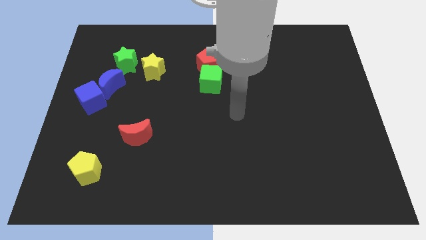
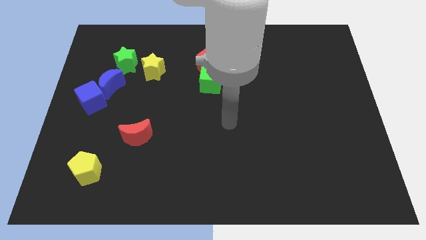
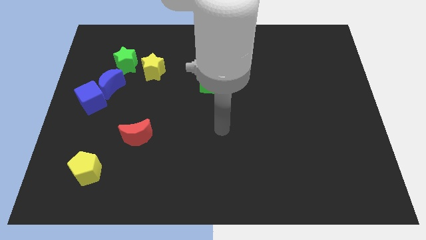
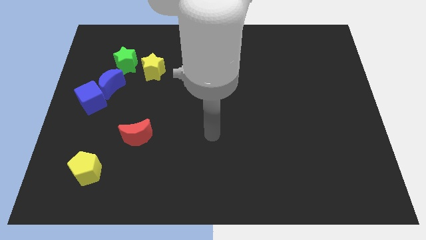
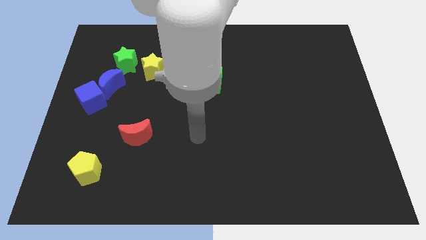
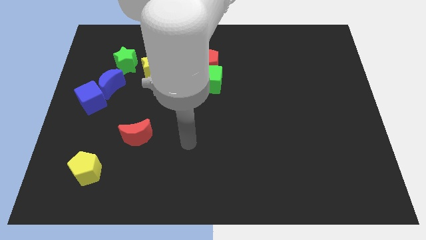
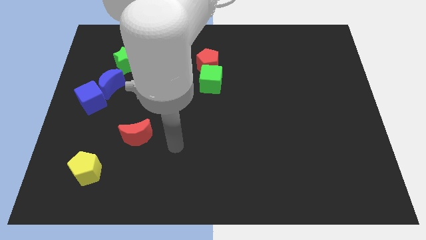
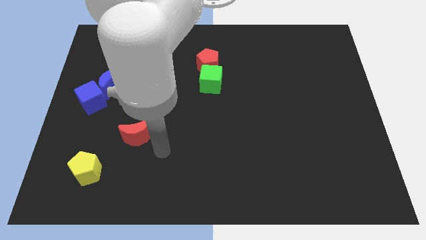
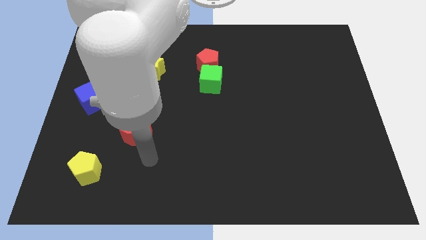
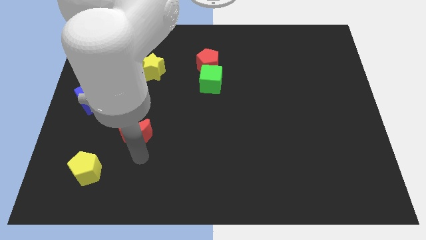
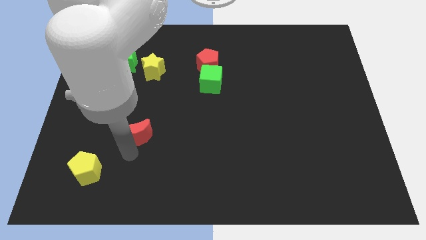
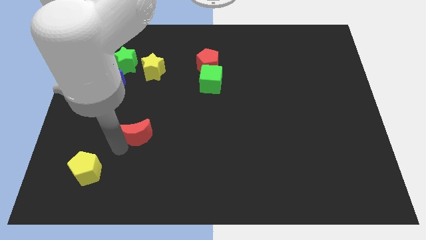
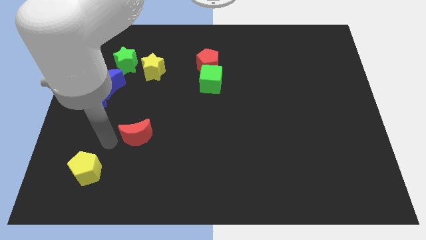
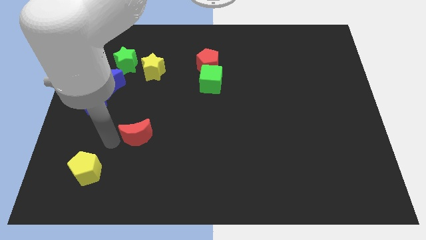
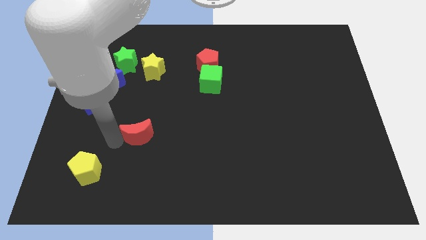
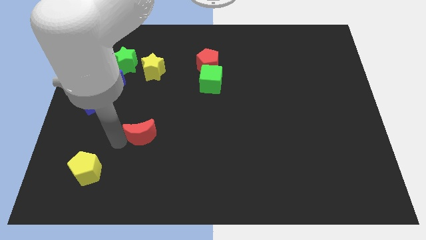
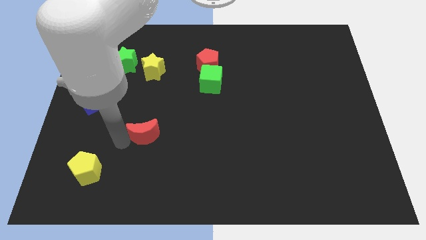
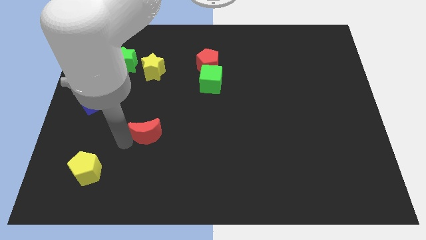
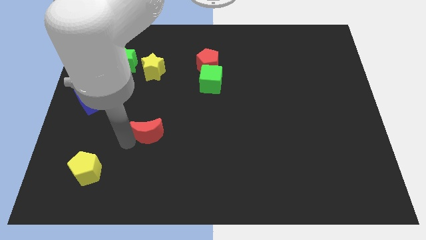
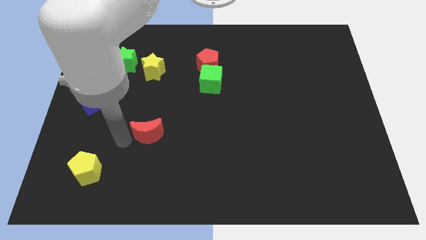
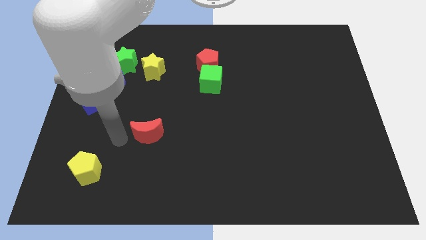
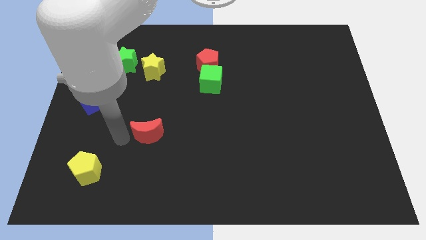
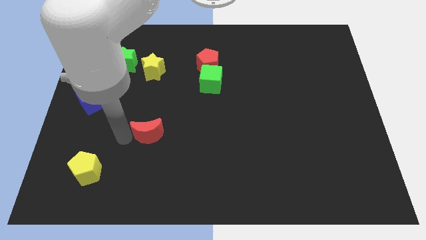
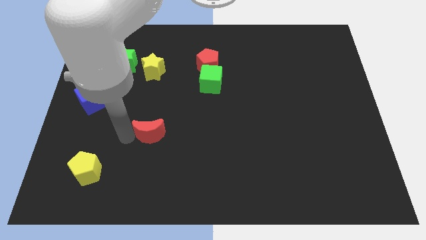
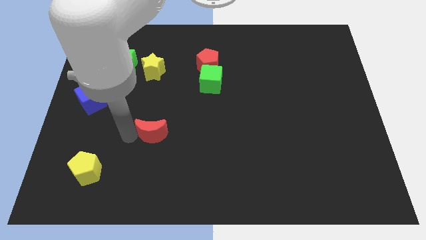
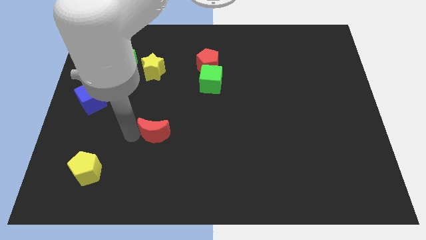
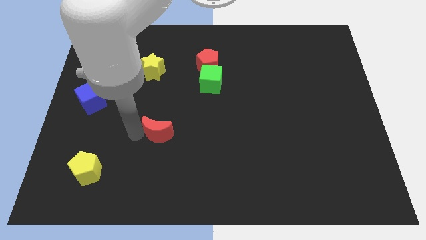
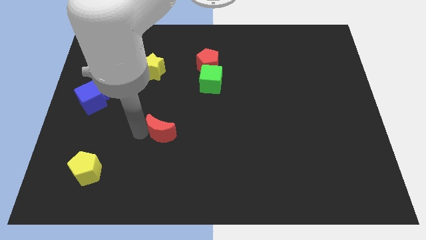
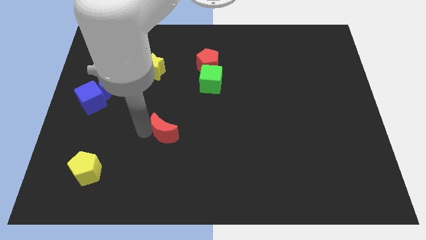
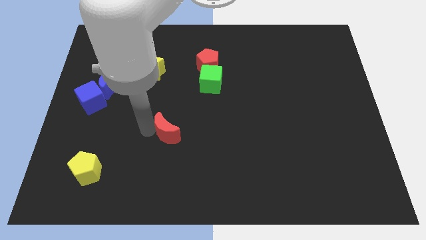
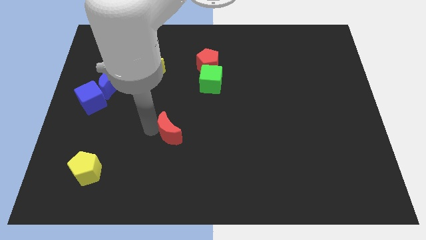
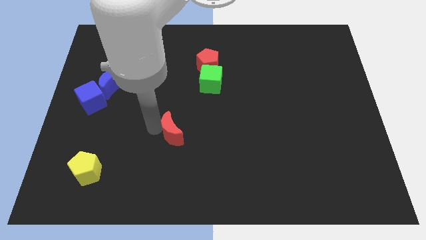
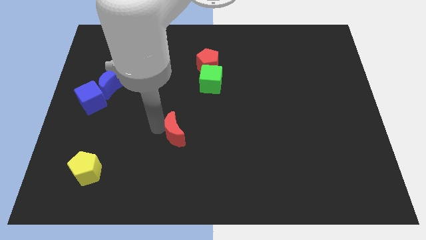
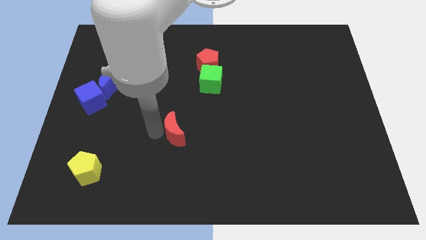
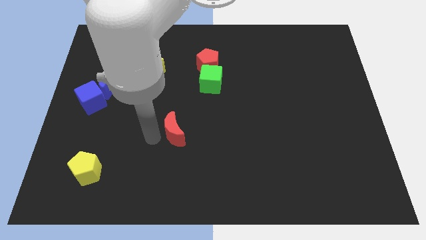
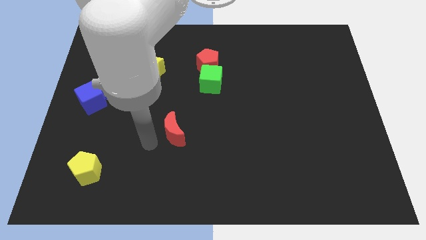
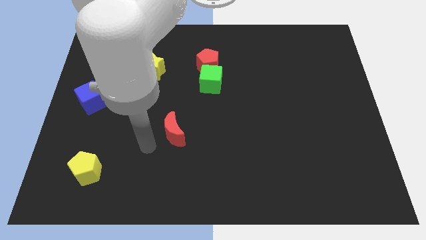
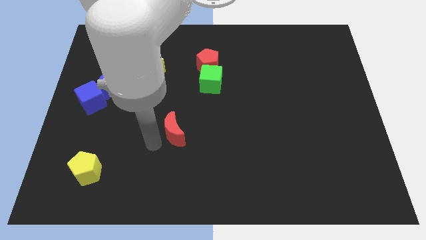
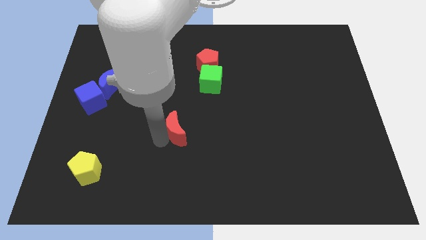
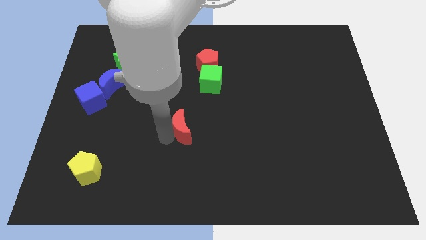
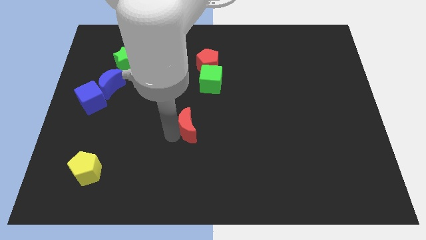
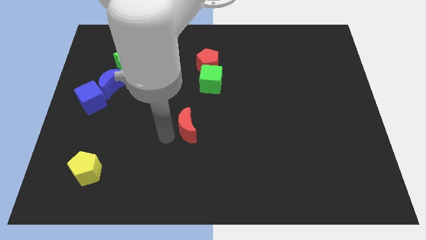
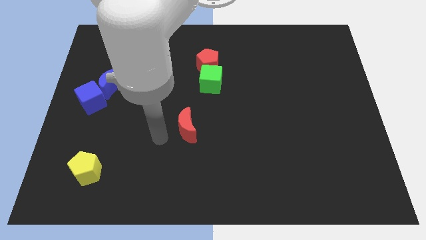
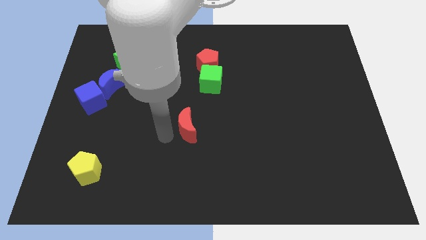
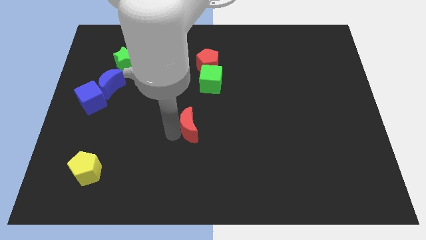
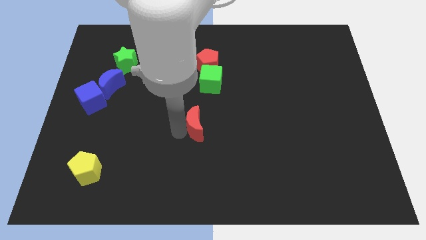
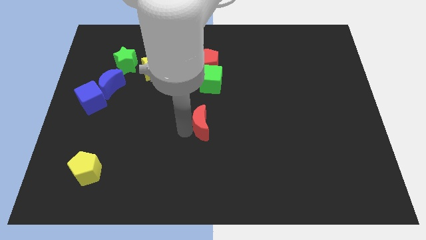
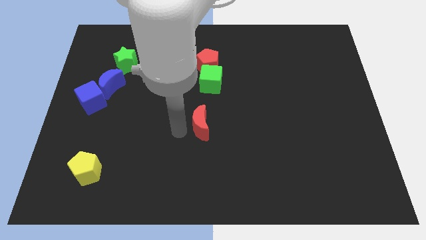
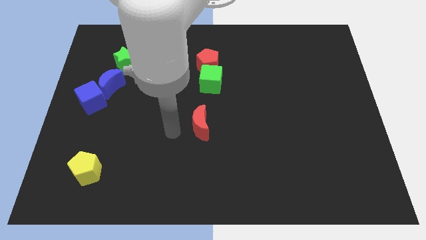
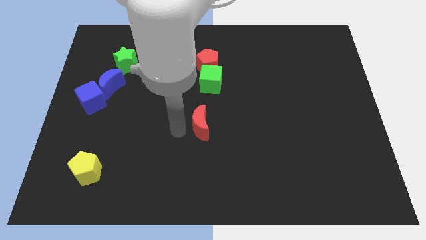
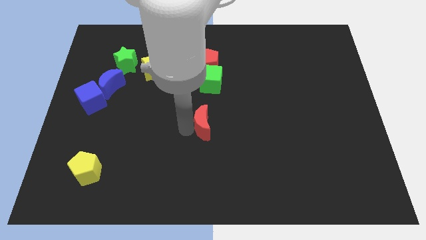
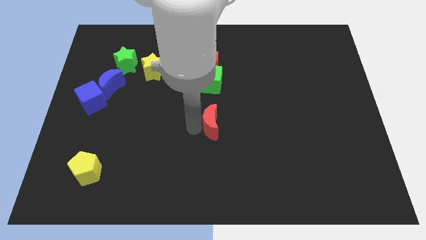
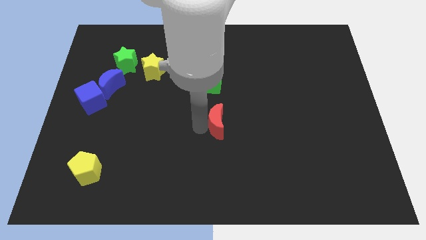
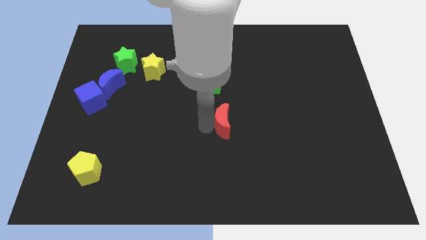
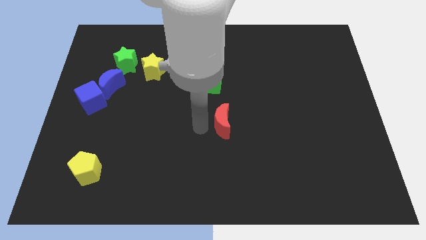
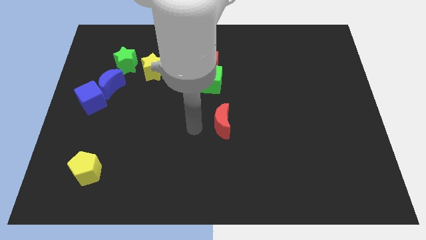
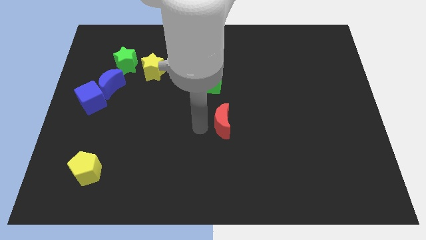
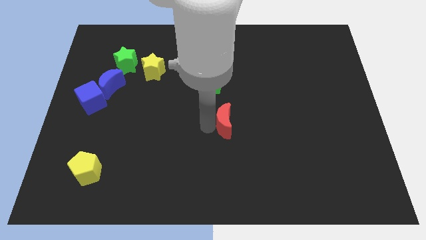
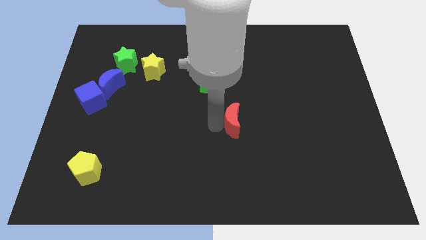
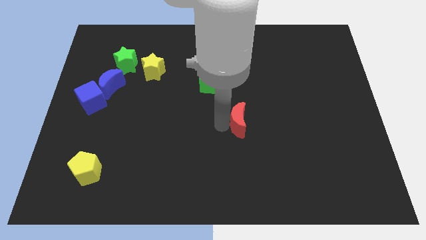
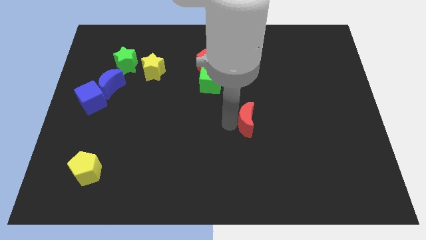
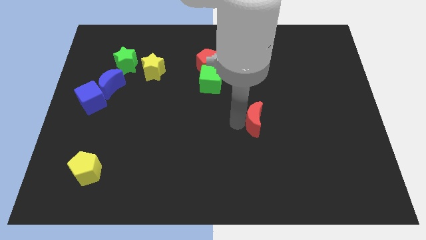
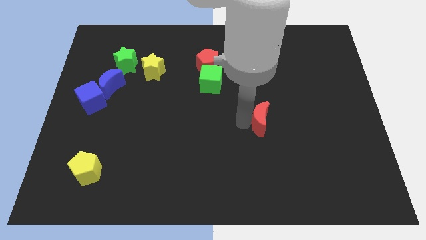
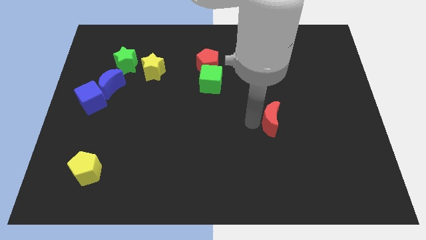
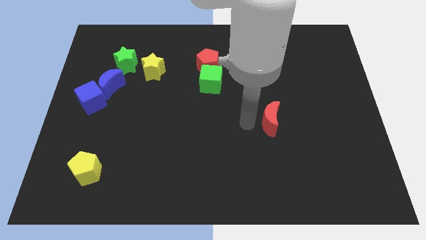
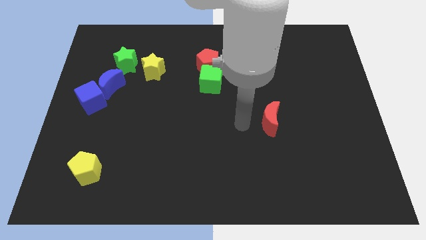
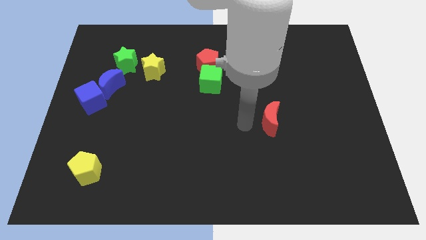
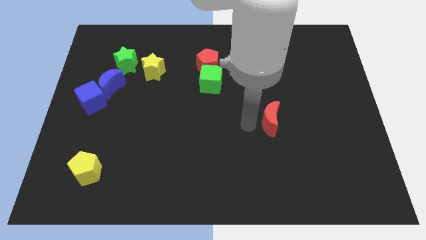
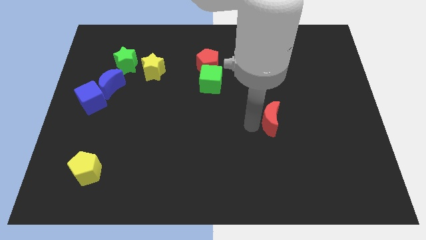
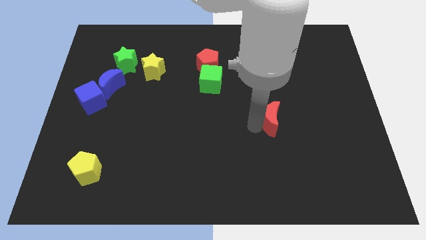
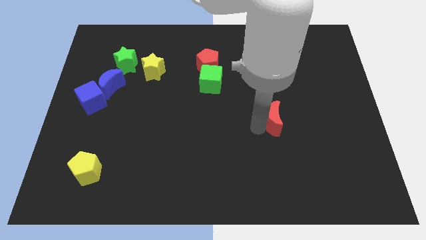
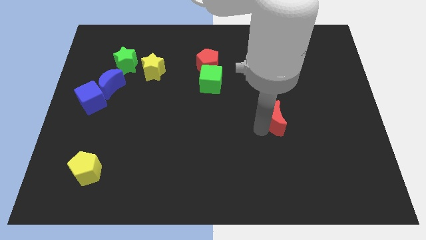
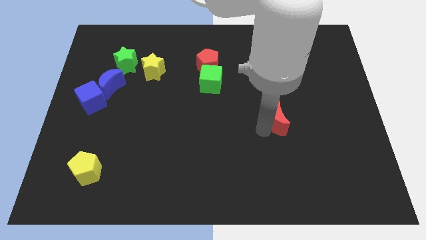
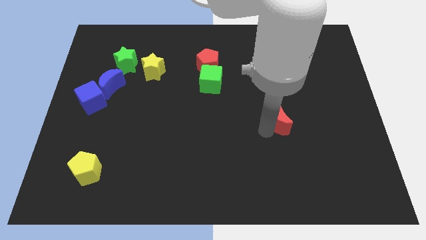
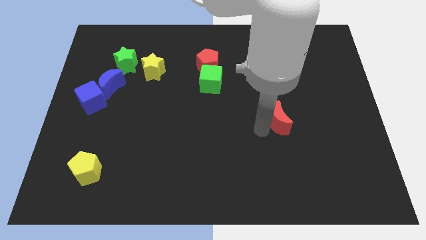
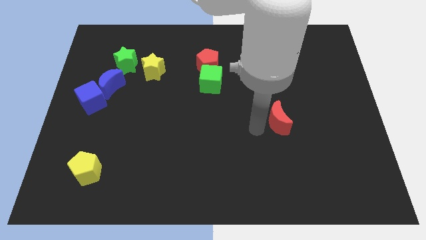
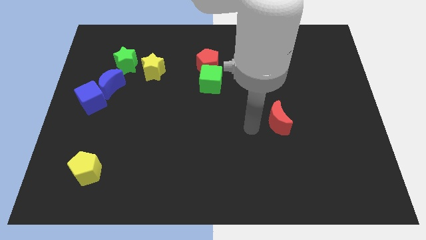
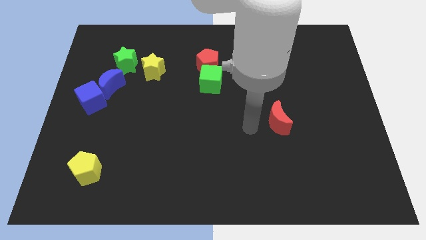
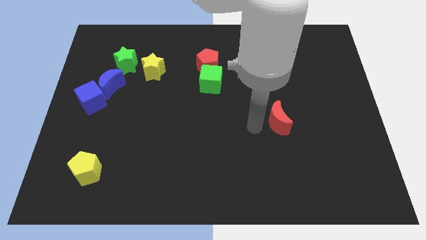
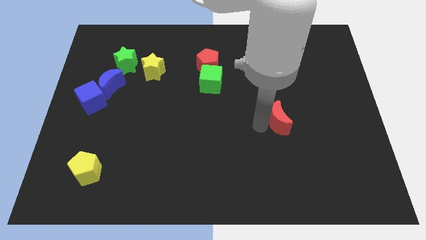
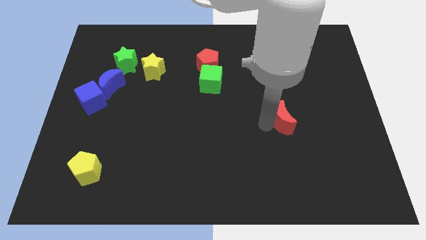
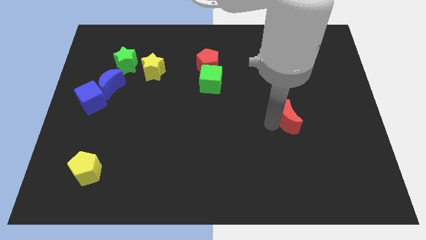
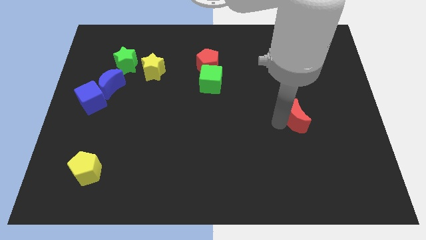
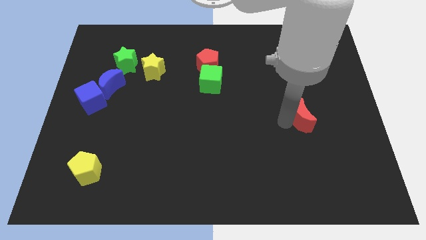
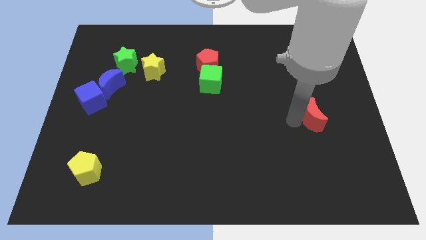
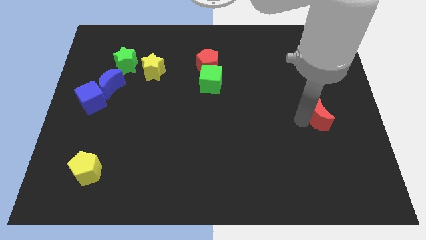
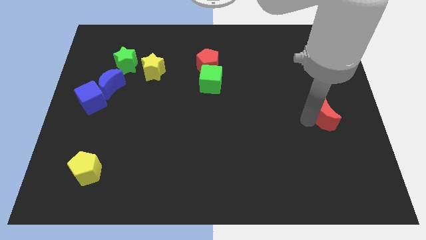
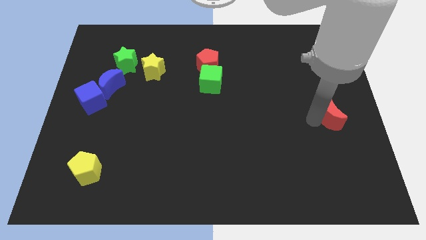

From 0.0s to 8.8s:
slide the red moon to the right side of the board
